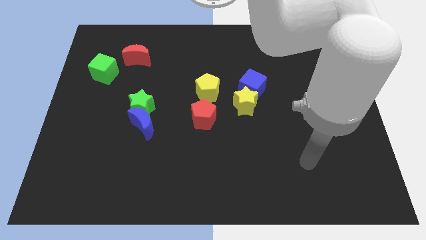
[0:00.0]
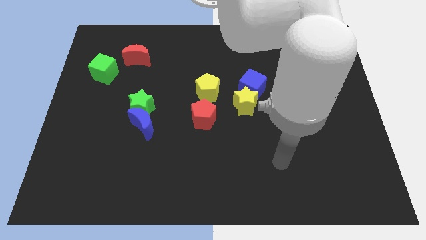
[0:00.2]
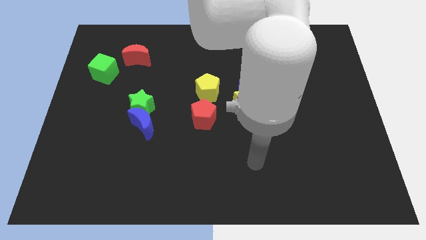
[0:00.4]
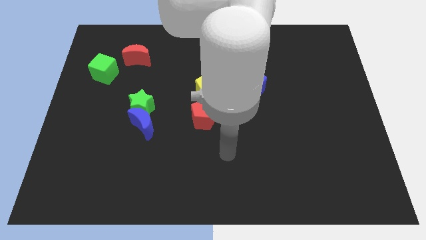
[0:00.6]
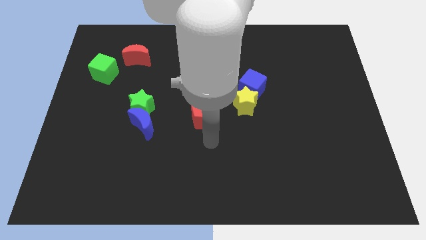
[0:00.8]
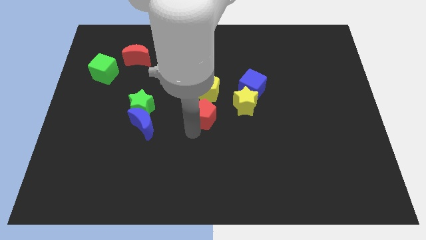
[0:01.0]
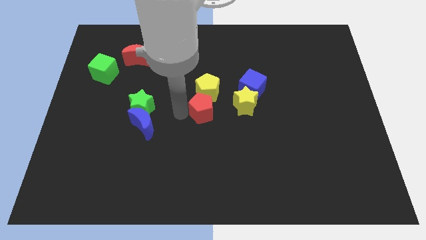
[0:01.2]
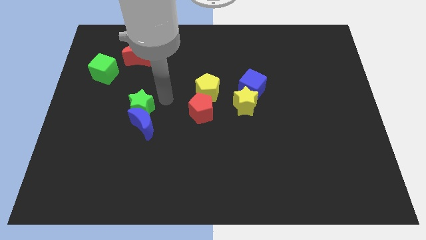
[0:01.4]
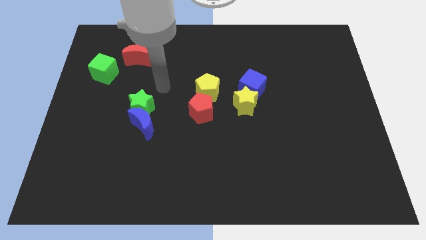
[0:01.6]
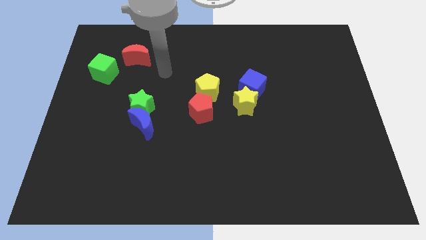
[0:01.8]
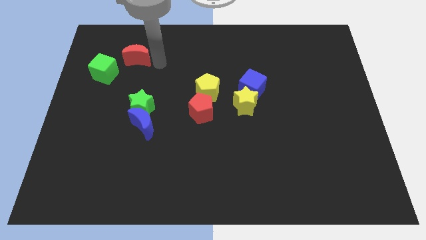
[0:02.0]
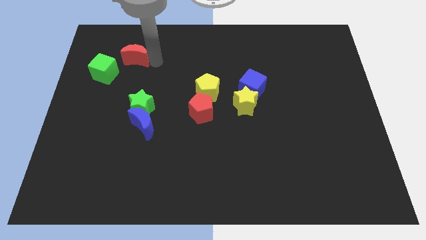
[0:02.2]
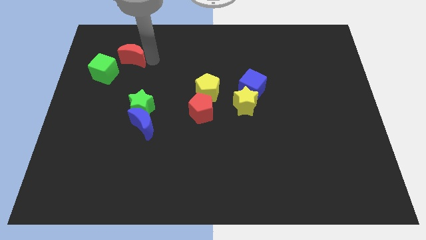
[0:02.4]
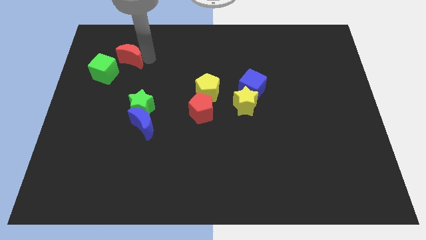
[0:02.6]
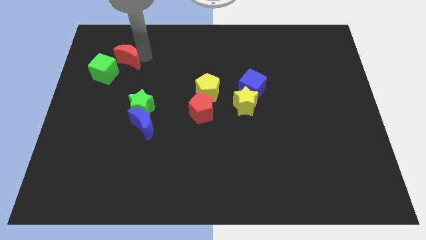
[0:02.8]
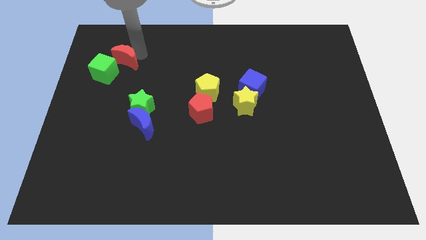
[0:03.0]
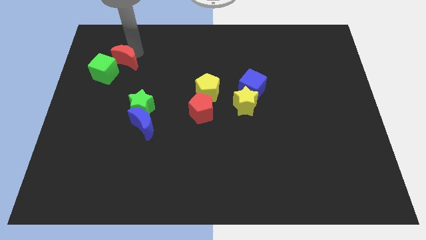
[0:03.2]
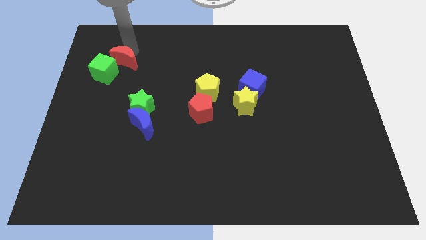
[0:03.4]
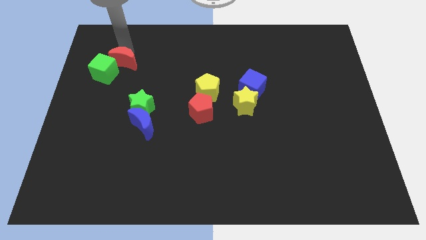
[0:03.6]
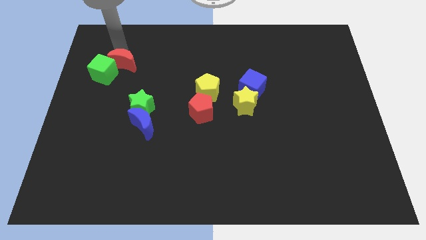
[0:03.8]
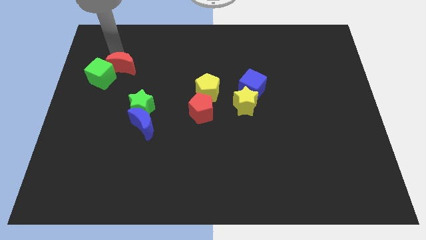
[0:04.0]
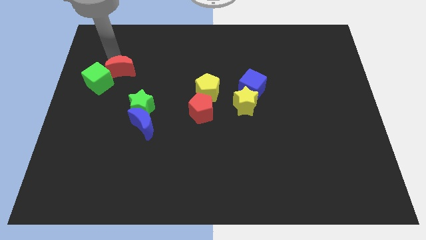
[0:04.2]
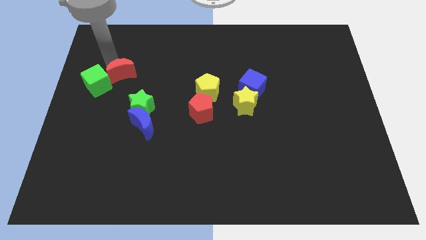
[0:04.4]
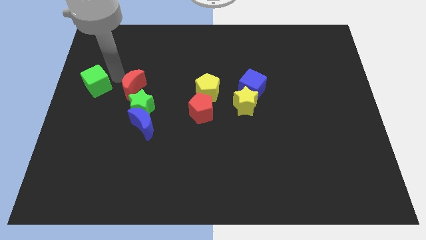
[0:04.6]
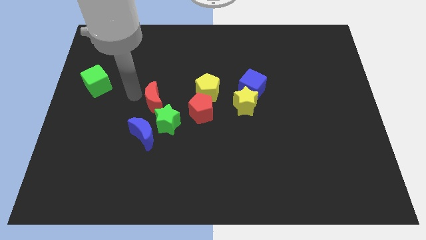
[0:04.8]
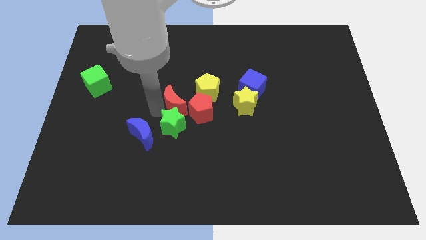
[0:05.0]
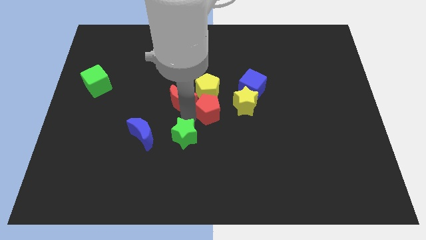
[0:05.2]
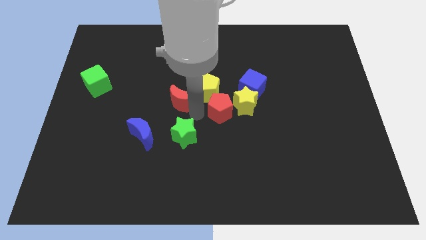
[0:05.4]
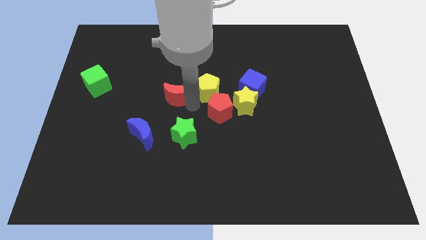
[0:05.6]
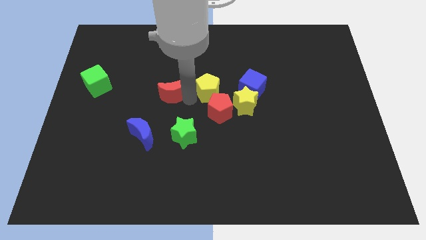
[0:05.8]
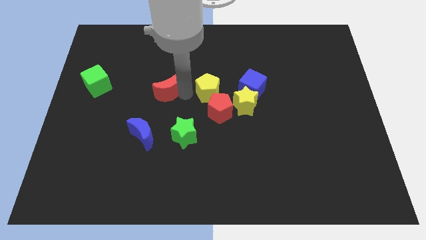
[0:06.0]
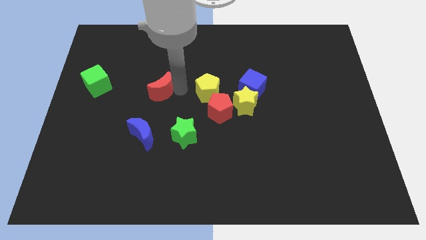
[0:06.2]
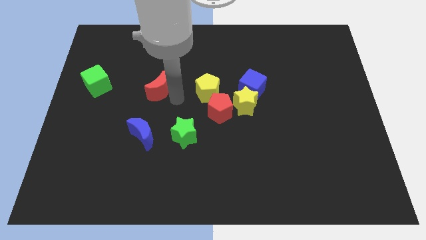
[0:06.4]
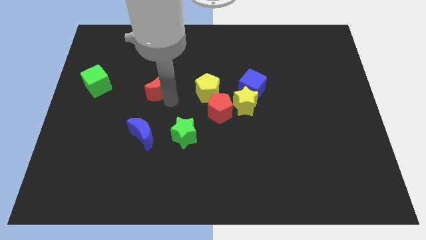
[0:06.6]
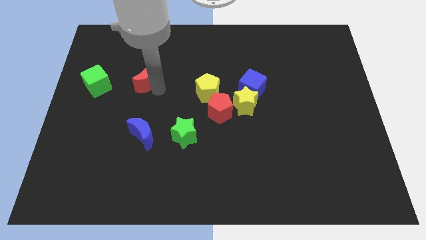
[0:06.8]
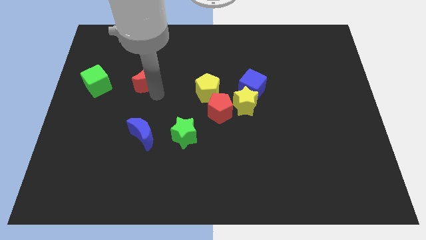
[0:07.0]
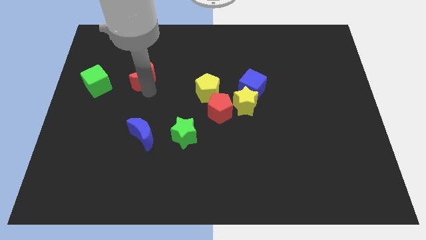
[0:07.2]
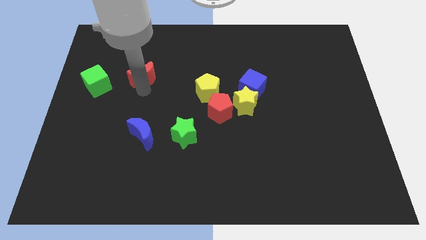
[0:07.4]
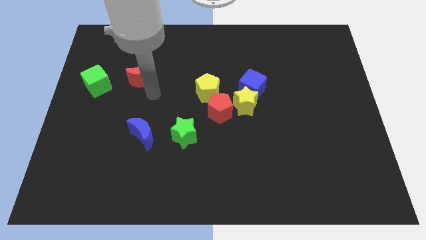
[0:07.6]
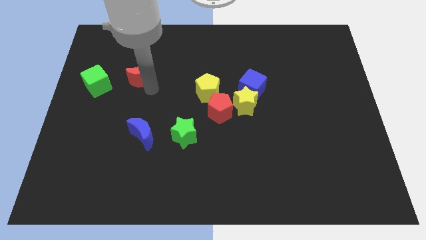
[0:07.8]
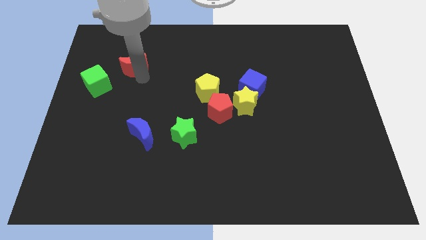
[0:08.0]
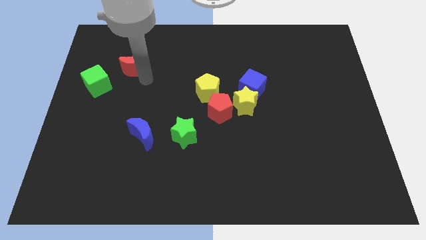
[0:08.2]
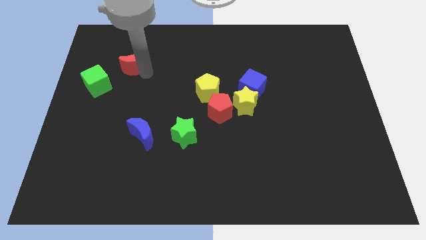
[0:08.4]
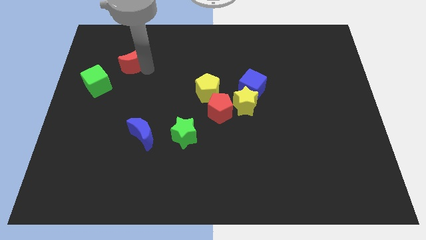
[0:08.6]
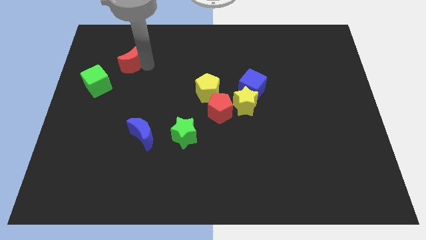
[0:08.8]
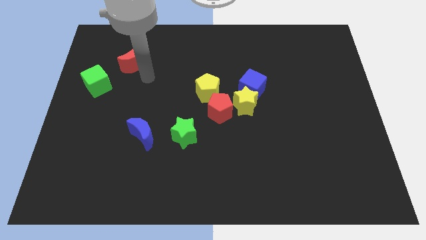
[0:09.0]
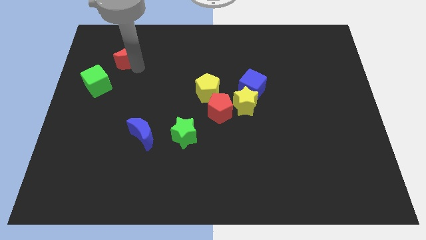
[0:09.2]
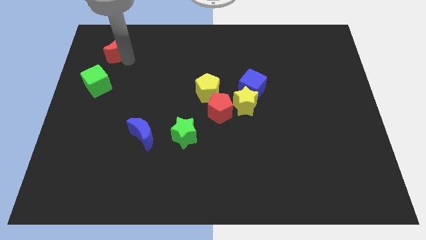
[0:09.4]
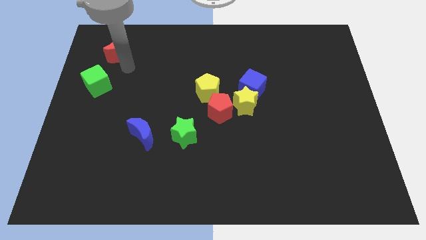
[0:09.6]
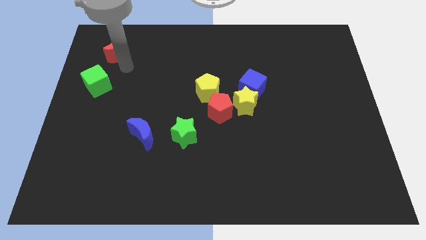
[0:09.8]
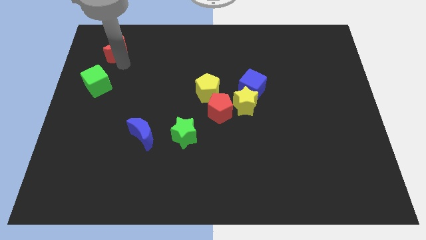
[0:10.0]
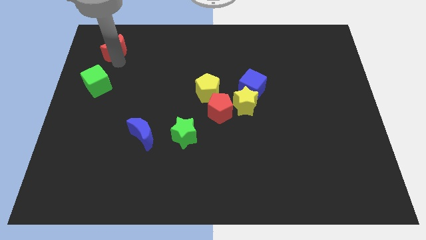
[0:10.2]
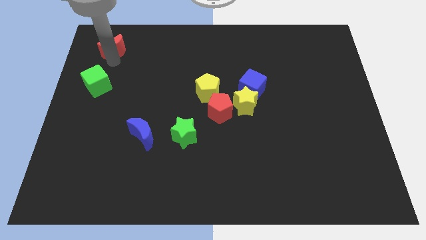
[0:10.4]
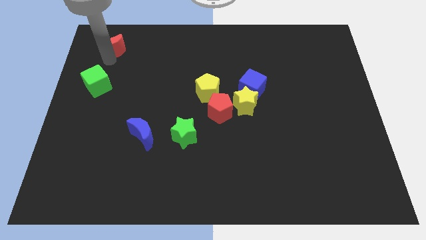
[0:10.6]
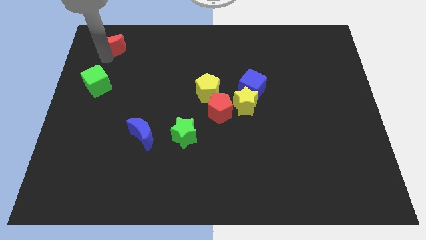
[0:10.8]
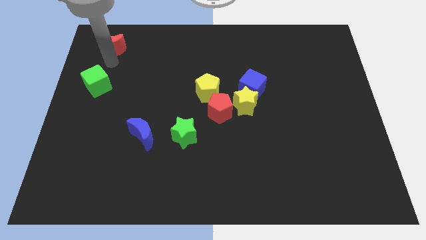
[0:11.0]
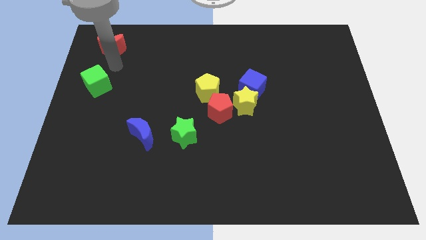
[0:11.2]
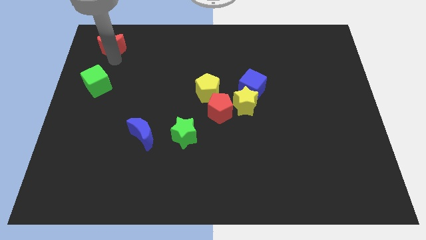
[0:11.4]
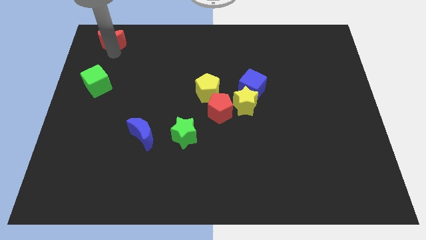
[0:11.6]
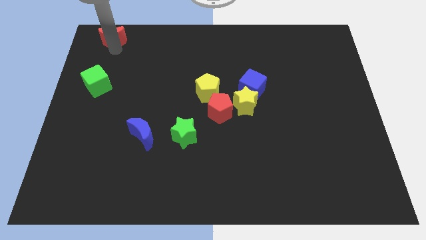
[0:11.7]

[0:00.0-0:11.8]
slide the red moon to the top left of the board

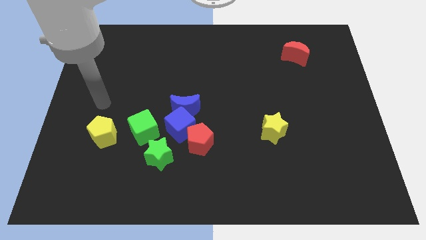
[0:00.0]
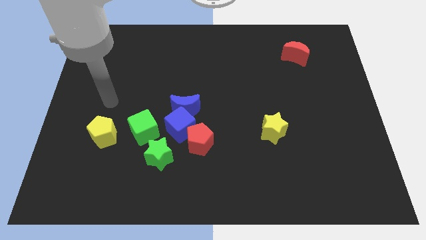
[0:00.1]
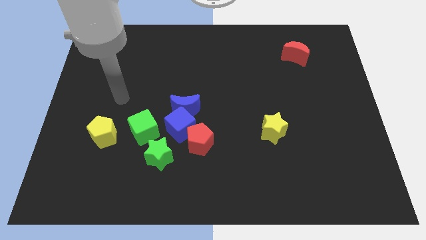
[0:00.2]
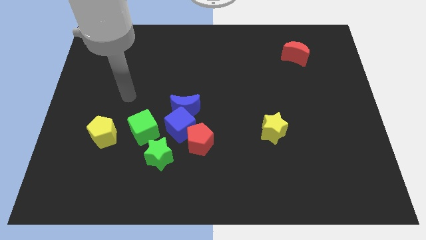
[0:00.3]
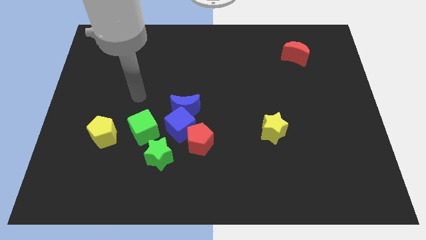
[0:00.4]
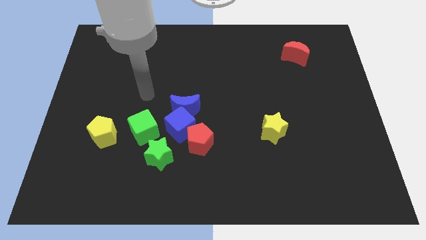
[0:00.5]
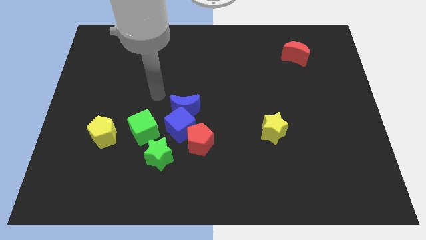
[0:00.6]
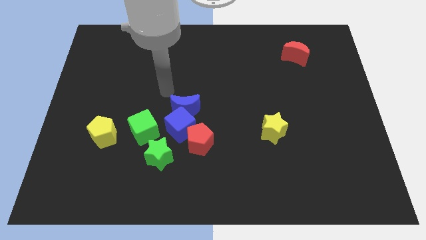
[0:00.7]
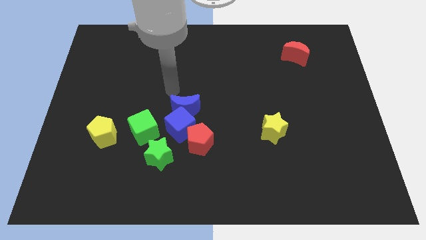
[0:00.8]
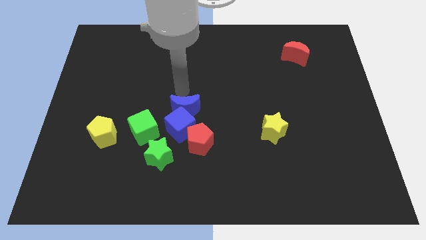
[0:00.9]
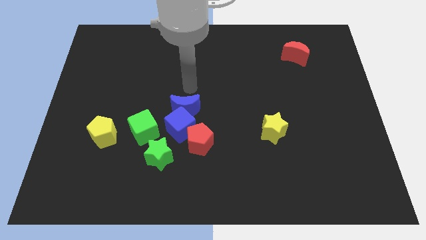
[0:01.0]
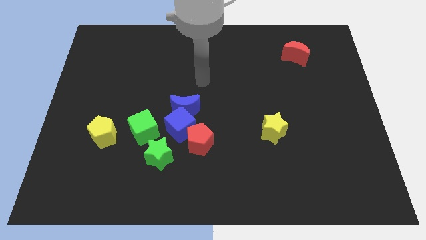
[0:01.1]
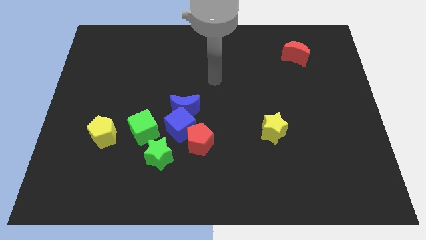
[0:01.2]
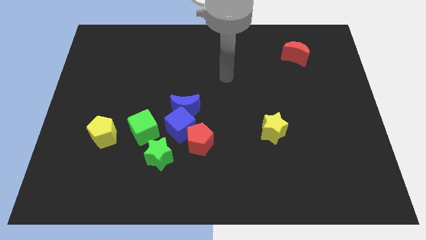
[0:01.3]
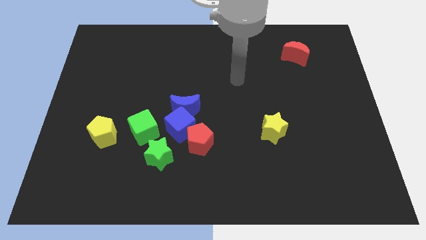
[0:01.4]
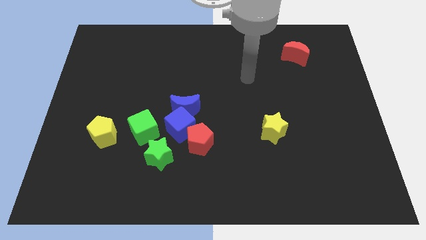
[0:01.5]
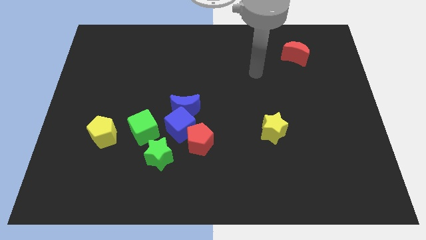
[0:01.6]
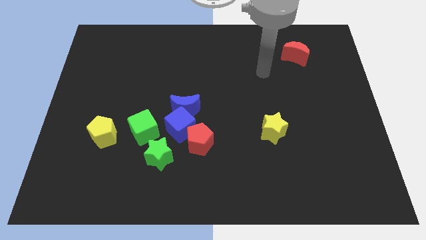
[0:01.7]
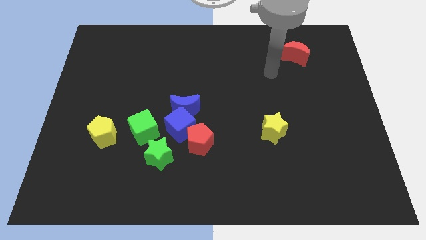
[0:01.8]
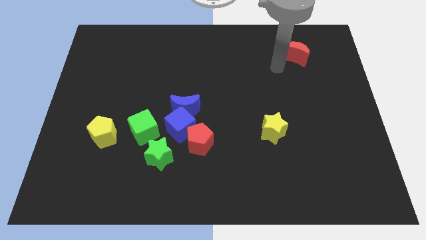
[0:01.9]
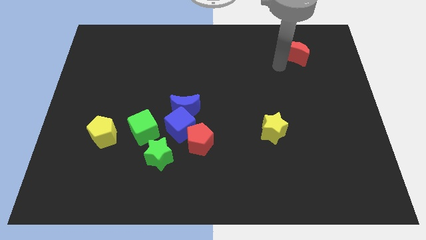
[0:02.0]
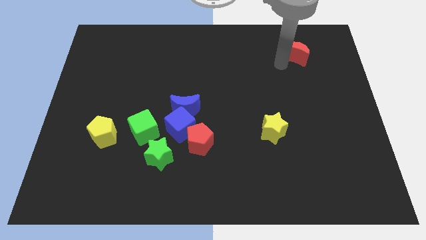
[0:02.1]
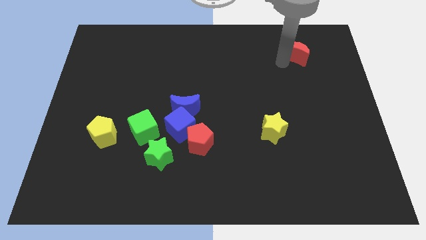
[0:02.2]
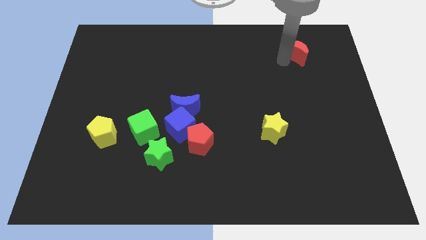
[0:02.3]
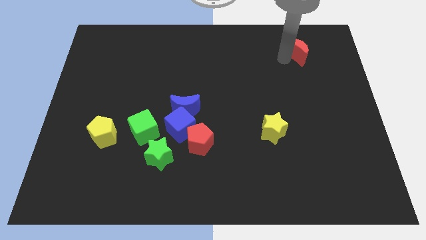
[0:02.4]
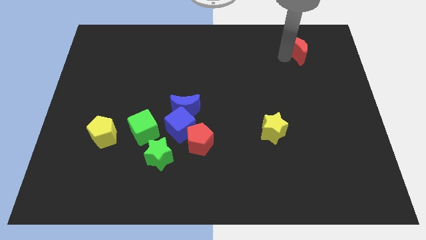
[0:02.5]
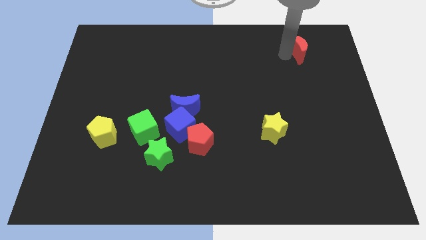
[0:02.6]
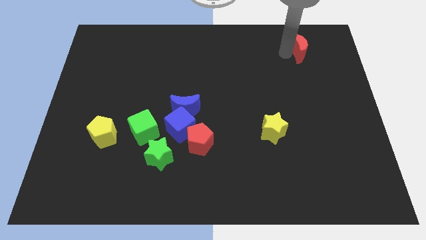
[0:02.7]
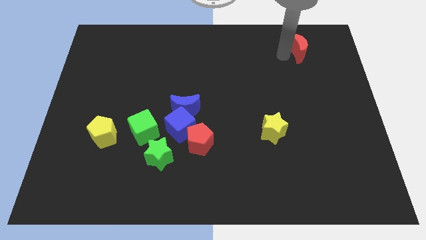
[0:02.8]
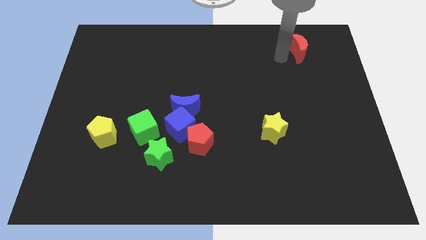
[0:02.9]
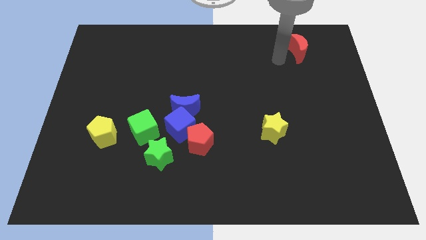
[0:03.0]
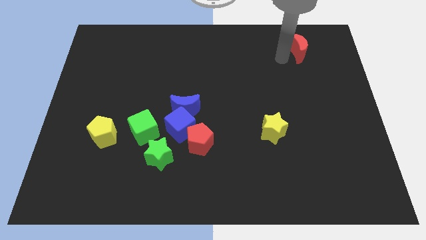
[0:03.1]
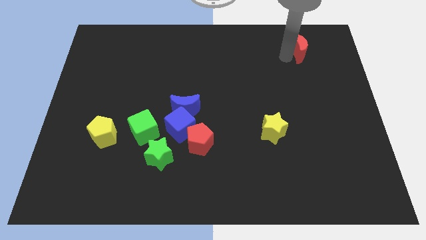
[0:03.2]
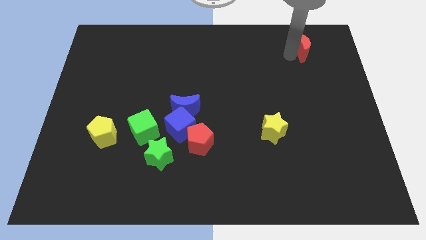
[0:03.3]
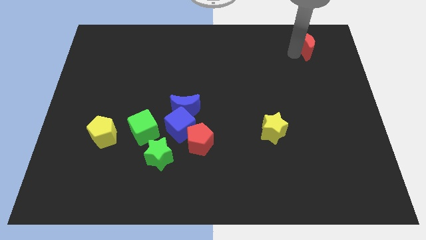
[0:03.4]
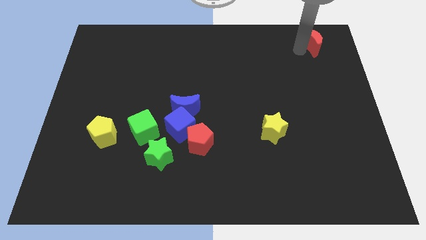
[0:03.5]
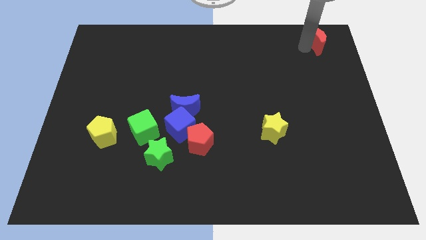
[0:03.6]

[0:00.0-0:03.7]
put the red moon to the top right of the board
